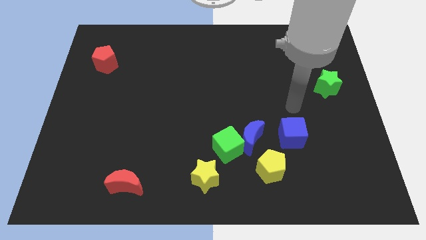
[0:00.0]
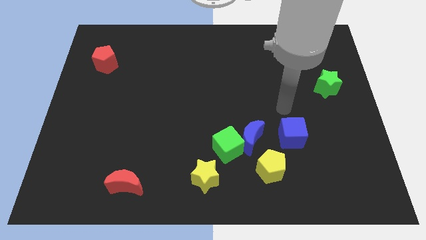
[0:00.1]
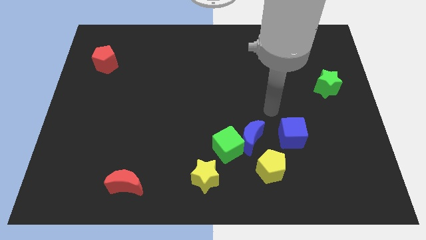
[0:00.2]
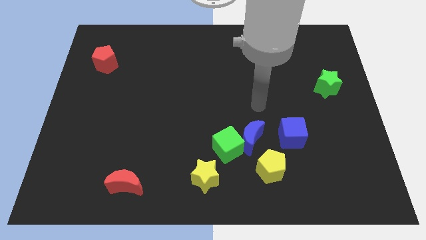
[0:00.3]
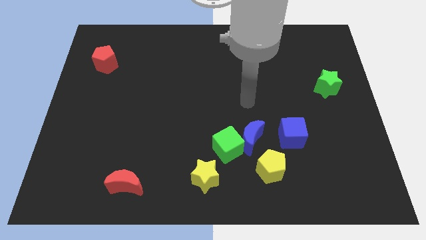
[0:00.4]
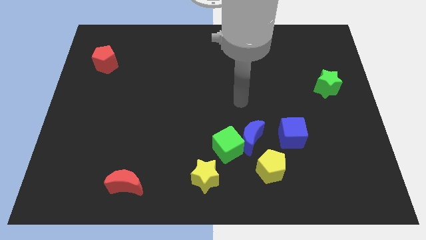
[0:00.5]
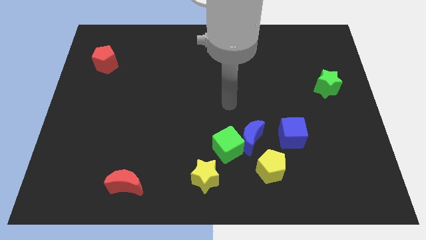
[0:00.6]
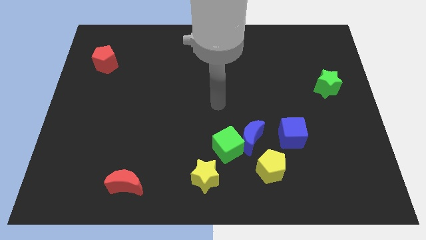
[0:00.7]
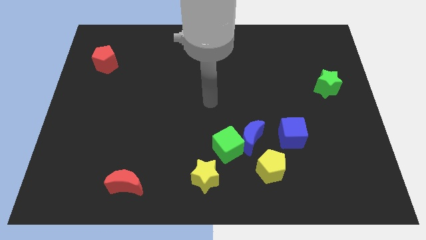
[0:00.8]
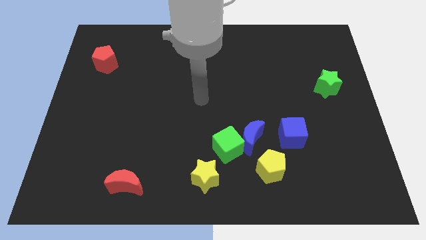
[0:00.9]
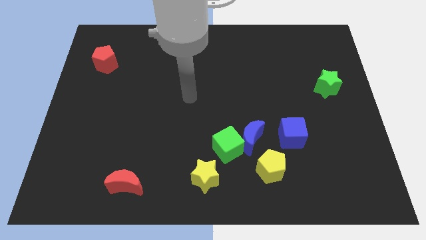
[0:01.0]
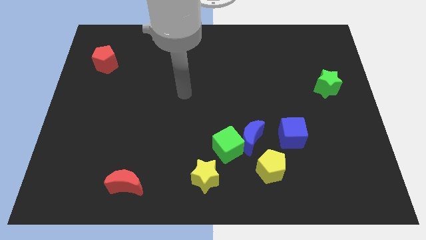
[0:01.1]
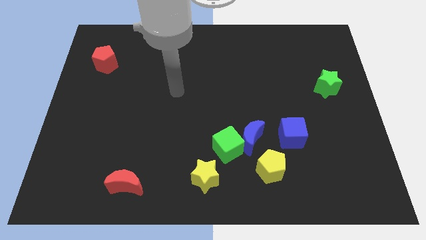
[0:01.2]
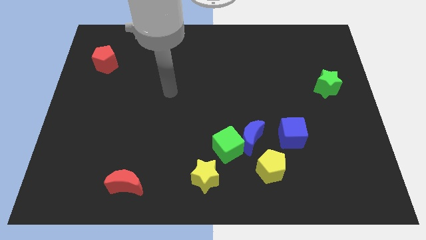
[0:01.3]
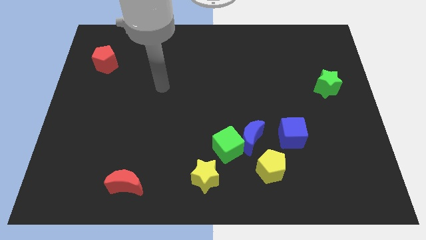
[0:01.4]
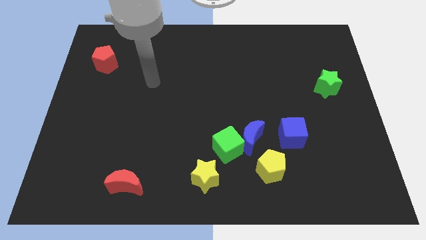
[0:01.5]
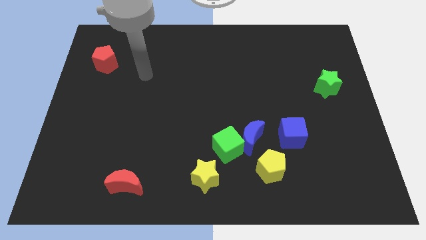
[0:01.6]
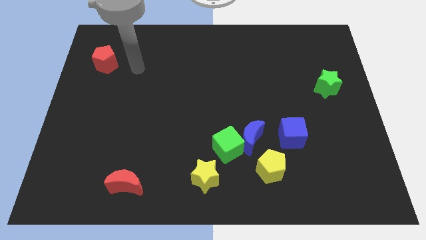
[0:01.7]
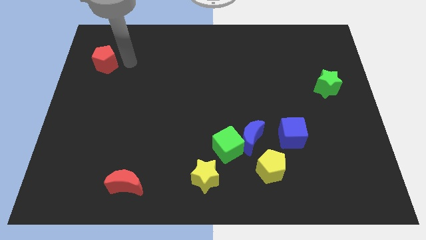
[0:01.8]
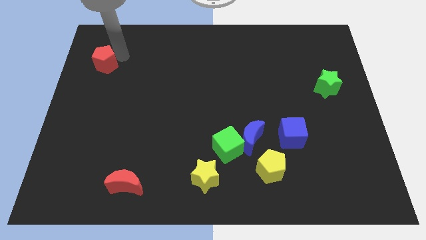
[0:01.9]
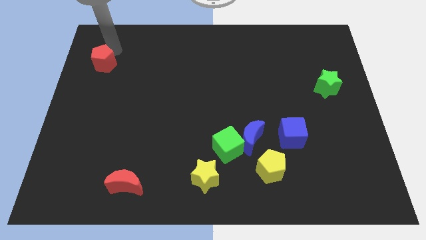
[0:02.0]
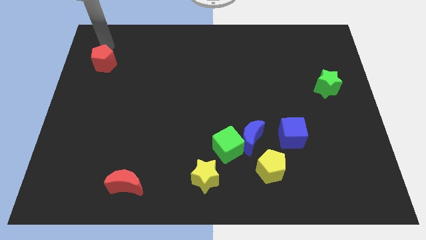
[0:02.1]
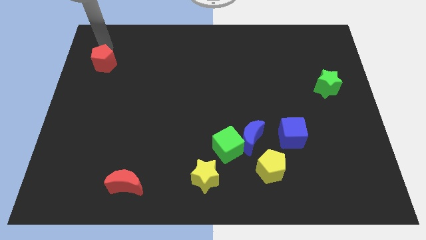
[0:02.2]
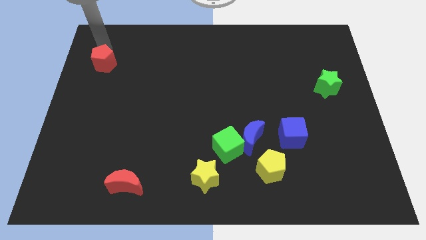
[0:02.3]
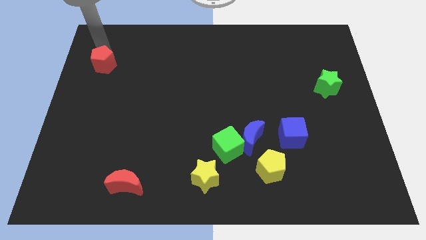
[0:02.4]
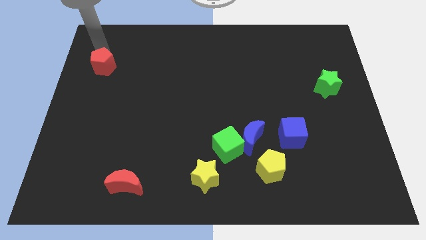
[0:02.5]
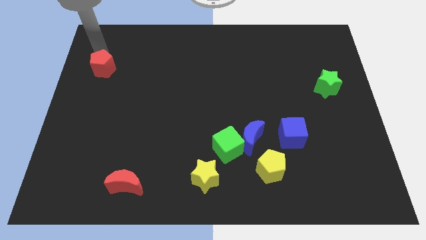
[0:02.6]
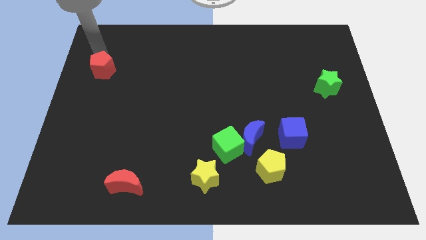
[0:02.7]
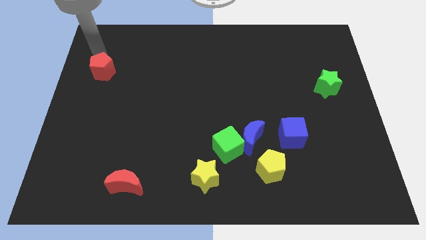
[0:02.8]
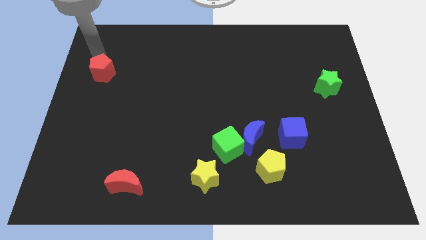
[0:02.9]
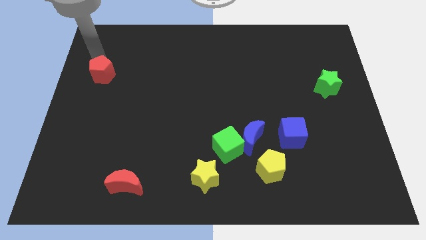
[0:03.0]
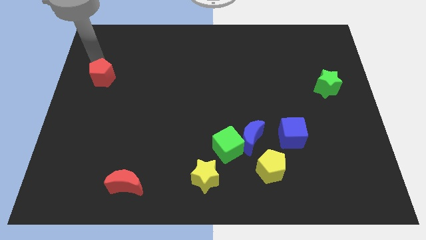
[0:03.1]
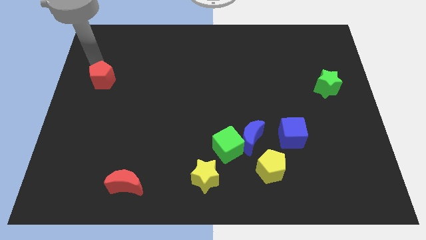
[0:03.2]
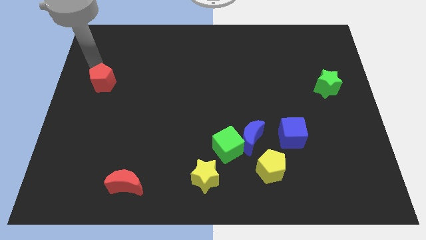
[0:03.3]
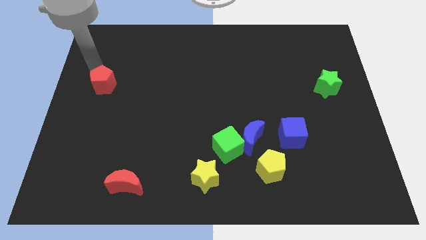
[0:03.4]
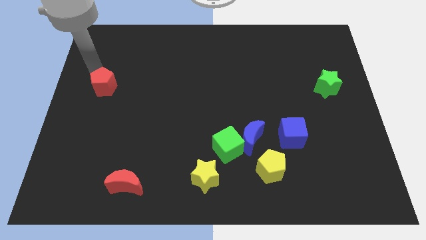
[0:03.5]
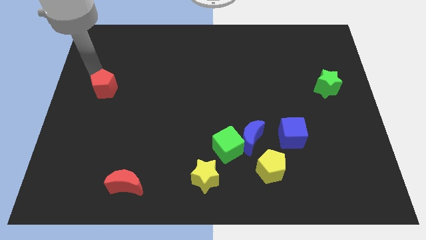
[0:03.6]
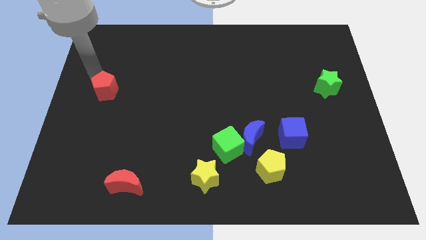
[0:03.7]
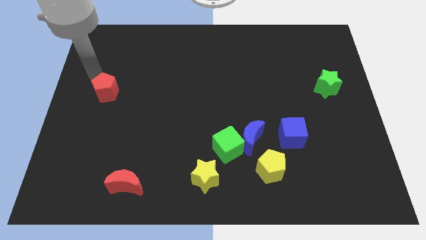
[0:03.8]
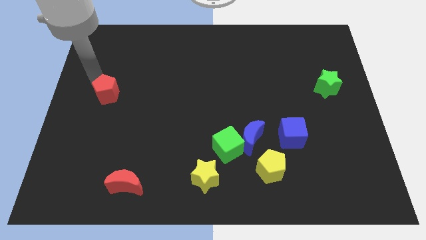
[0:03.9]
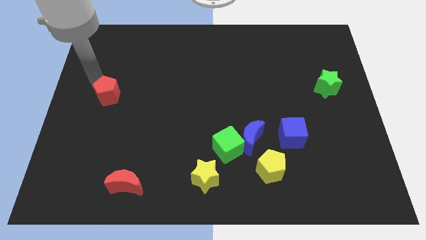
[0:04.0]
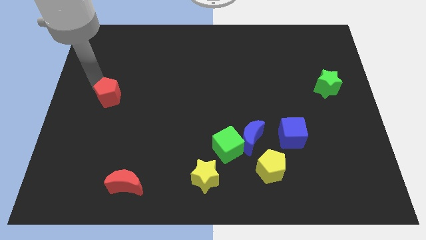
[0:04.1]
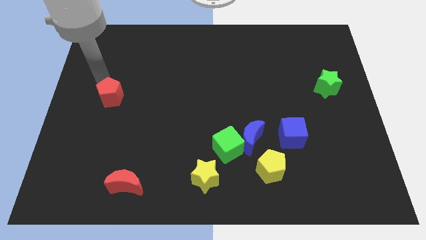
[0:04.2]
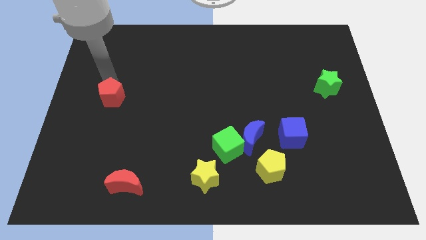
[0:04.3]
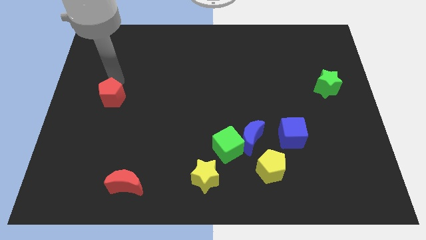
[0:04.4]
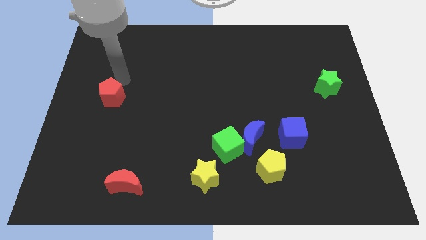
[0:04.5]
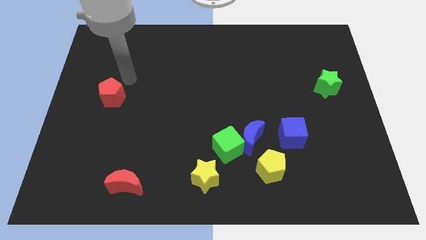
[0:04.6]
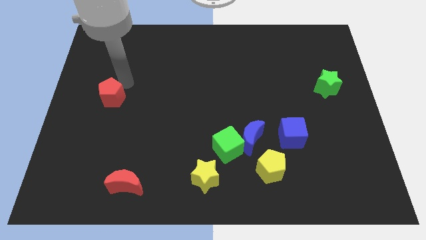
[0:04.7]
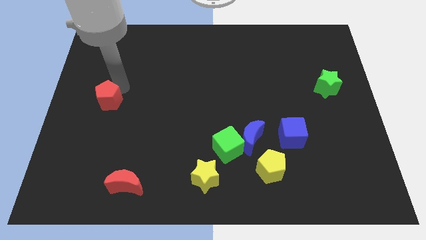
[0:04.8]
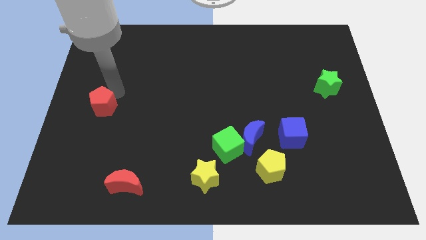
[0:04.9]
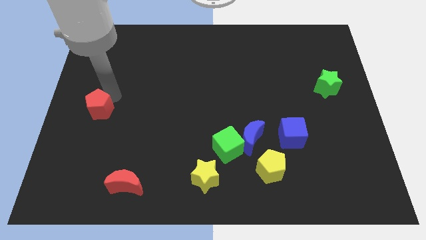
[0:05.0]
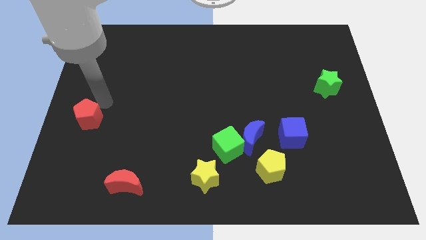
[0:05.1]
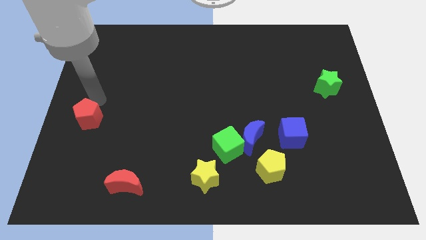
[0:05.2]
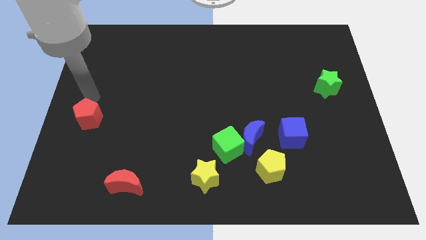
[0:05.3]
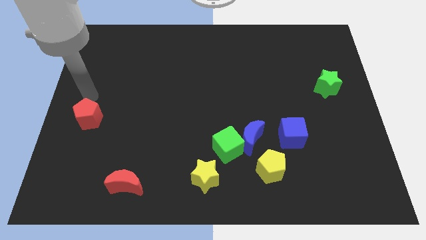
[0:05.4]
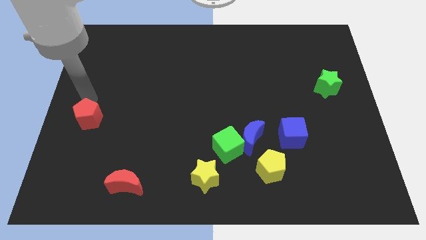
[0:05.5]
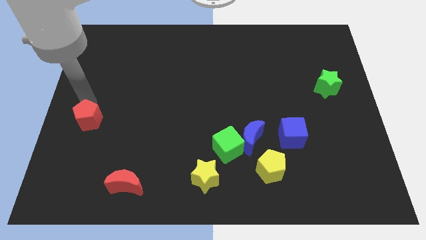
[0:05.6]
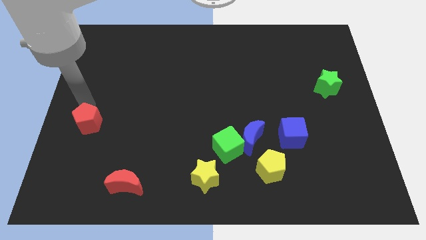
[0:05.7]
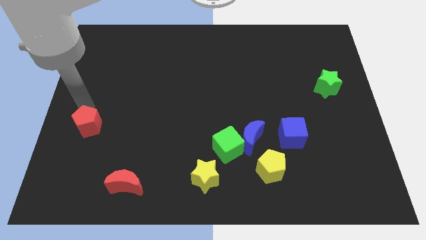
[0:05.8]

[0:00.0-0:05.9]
slide the red pentagon downwards

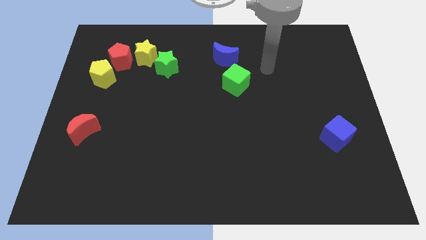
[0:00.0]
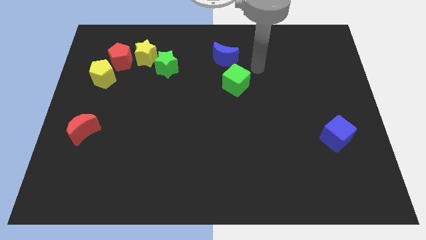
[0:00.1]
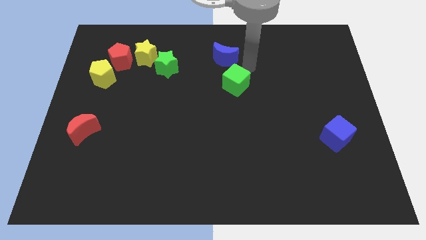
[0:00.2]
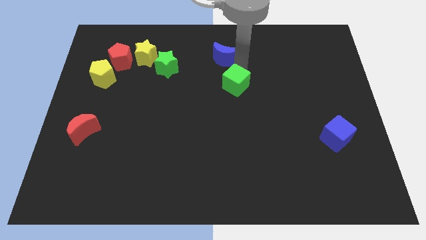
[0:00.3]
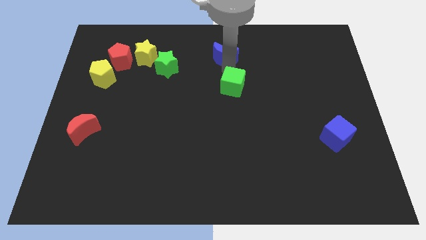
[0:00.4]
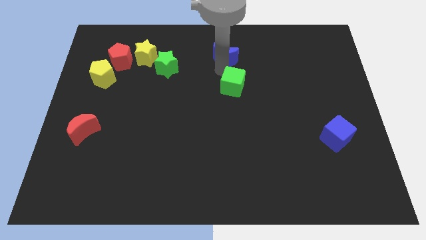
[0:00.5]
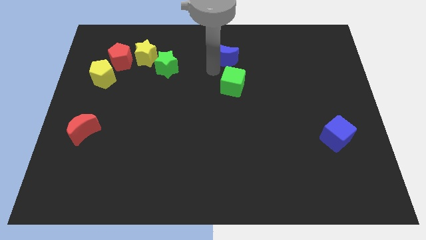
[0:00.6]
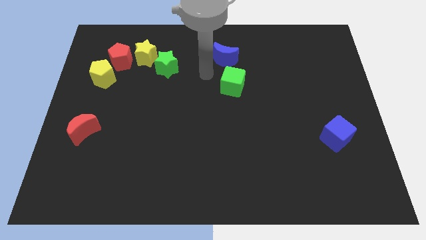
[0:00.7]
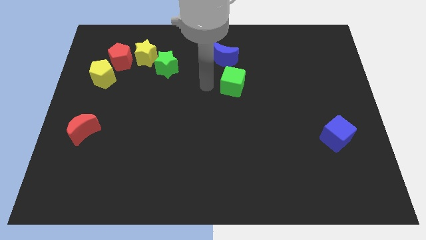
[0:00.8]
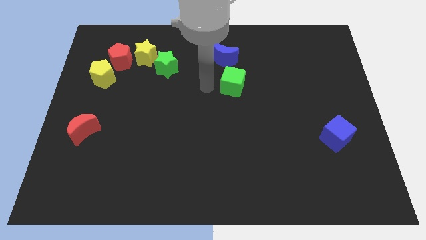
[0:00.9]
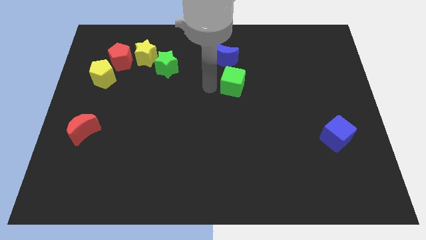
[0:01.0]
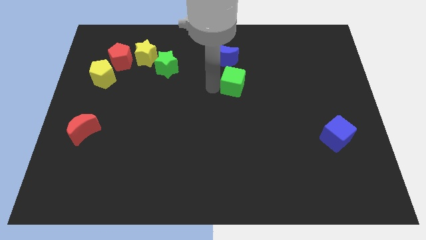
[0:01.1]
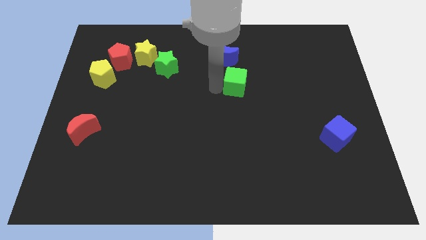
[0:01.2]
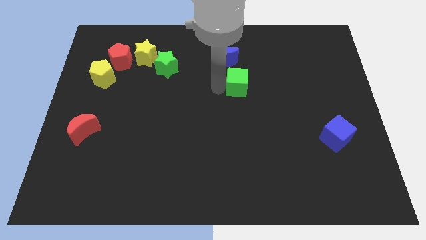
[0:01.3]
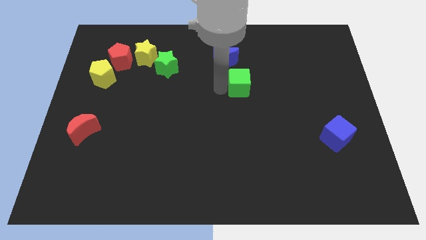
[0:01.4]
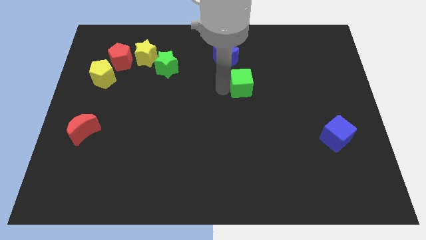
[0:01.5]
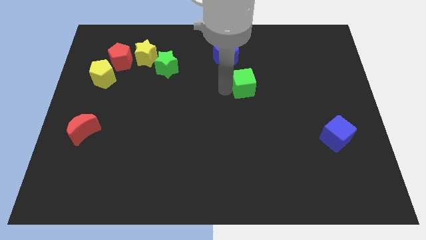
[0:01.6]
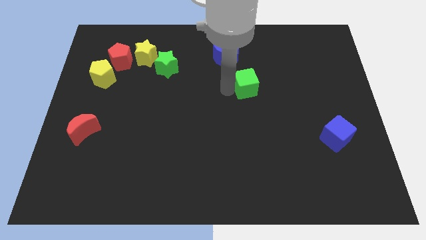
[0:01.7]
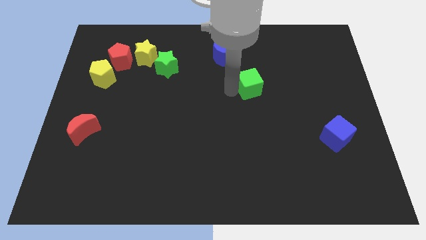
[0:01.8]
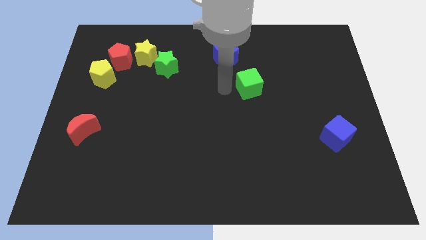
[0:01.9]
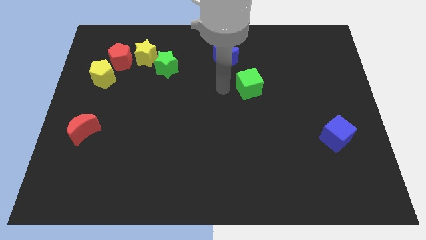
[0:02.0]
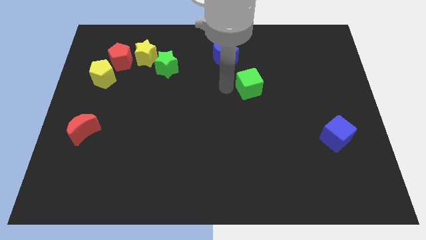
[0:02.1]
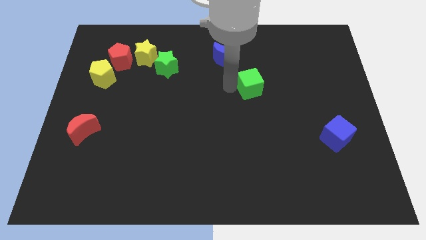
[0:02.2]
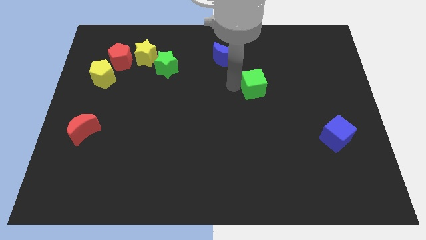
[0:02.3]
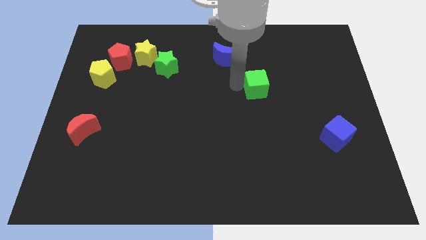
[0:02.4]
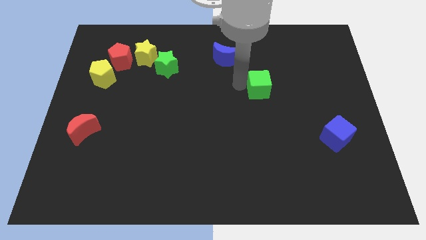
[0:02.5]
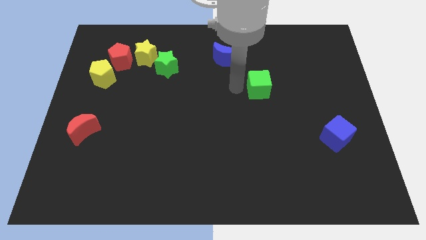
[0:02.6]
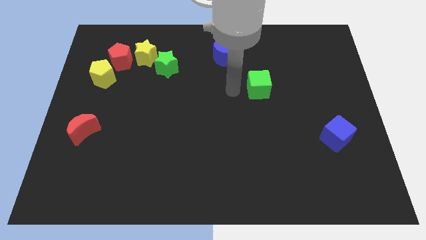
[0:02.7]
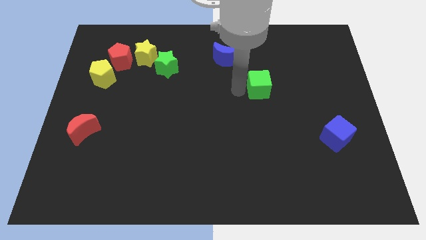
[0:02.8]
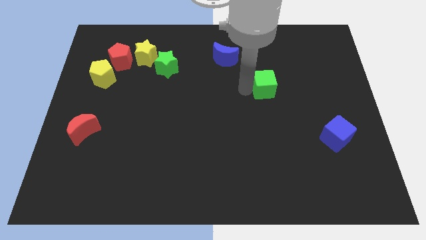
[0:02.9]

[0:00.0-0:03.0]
slightly slide the green cube to the right
